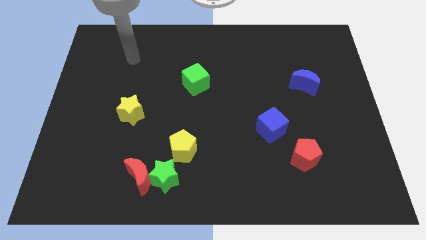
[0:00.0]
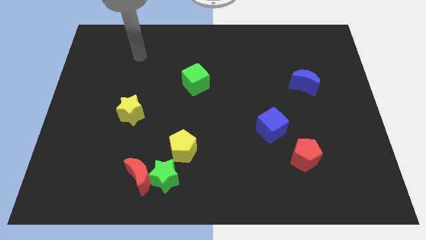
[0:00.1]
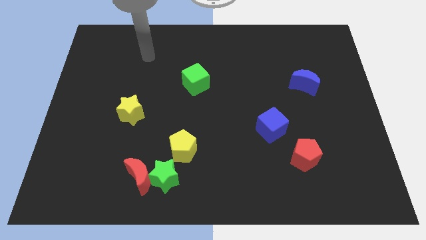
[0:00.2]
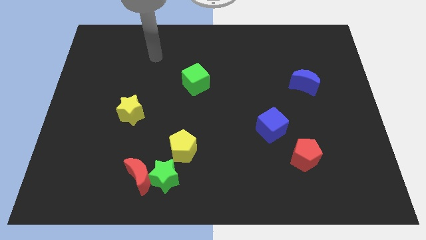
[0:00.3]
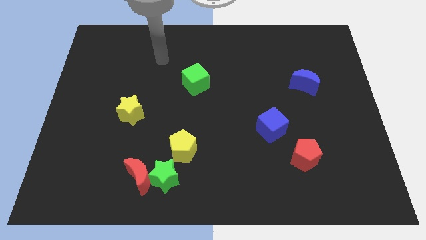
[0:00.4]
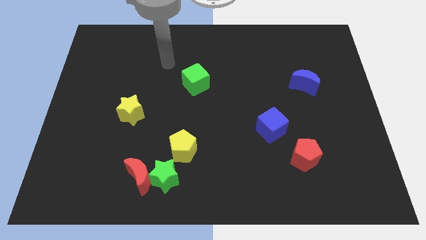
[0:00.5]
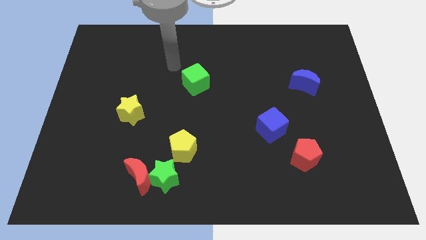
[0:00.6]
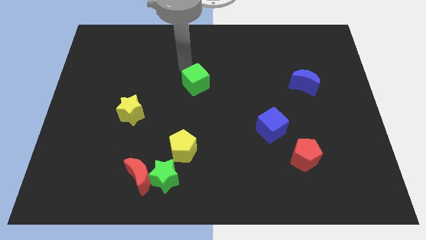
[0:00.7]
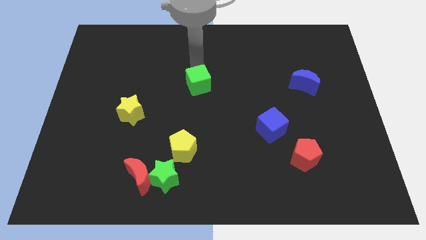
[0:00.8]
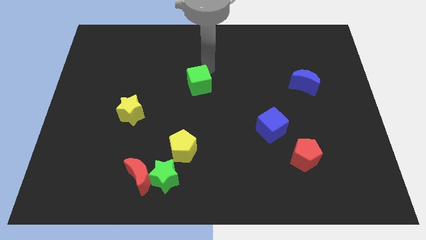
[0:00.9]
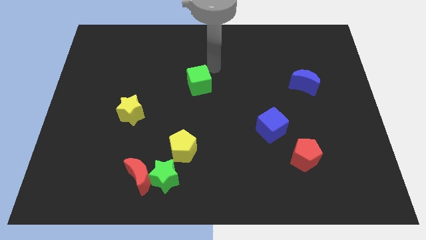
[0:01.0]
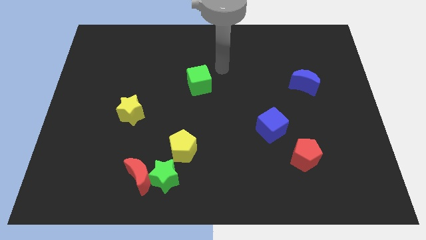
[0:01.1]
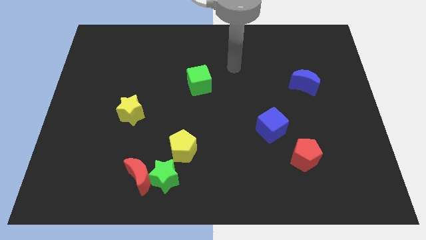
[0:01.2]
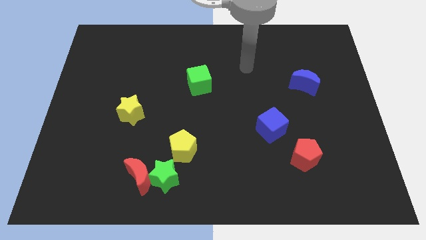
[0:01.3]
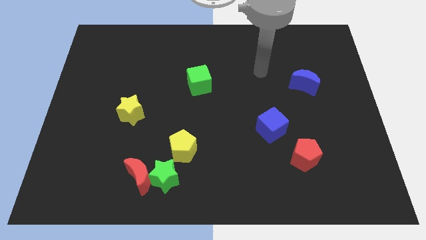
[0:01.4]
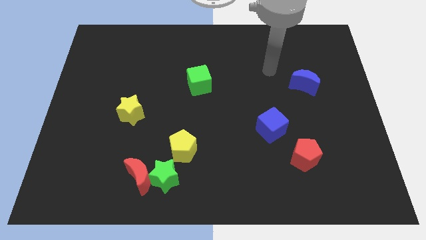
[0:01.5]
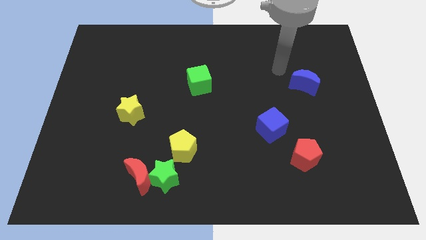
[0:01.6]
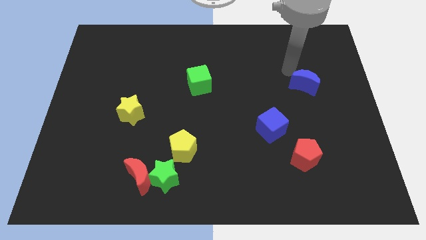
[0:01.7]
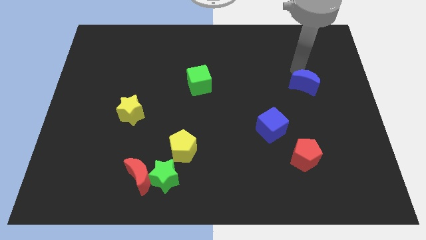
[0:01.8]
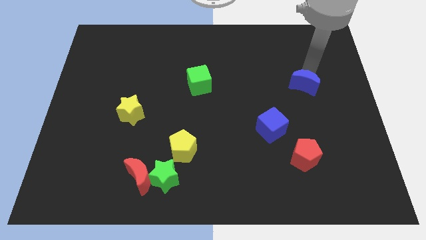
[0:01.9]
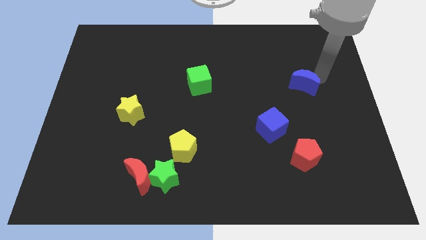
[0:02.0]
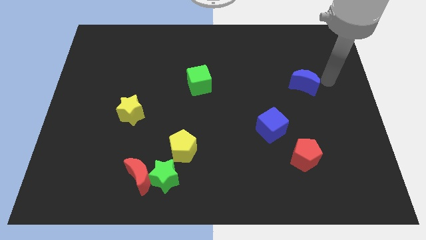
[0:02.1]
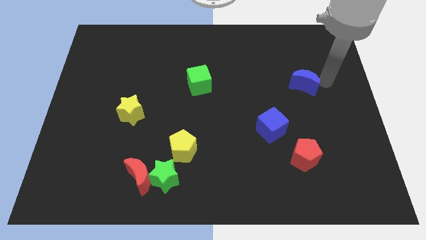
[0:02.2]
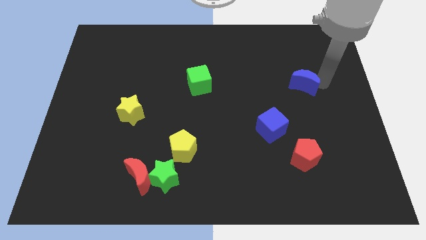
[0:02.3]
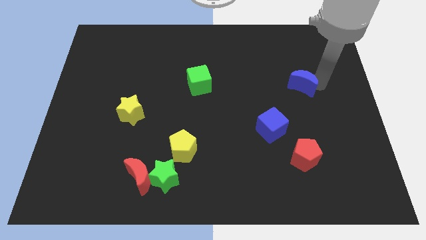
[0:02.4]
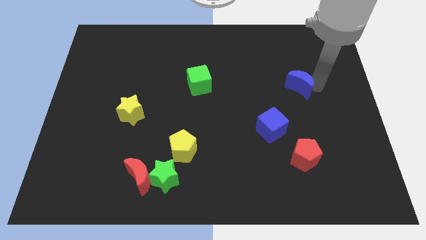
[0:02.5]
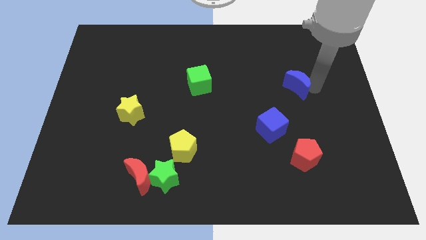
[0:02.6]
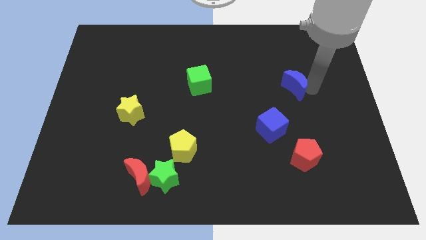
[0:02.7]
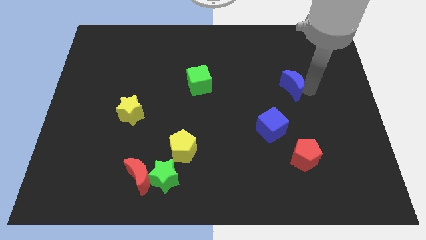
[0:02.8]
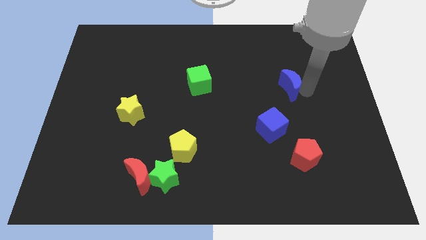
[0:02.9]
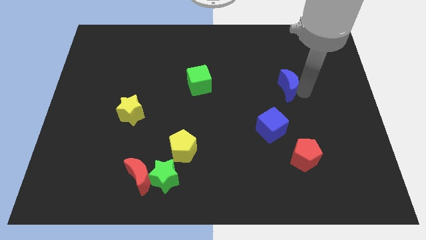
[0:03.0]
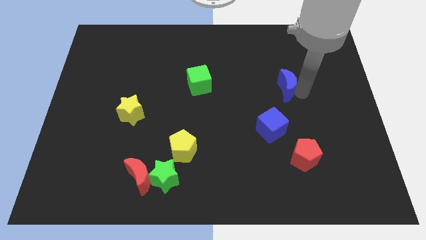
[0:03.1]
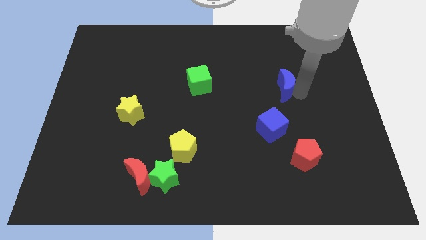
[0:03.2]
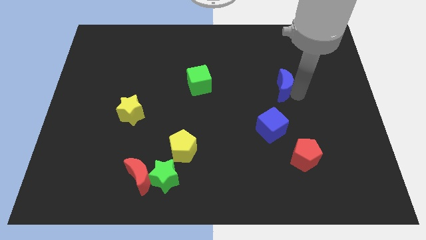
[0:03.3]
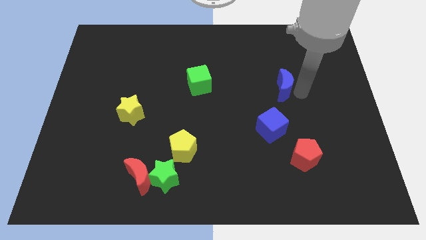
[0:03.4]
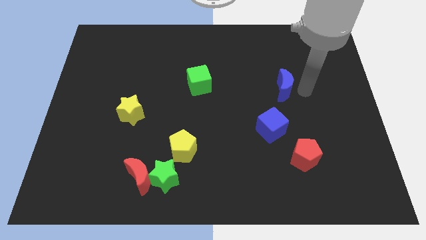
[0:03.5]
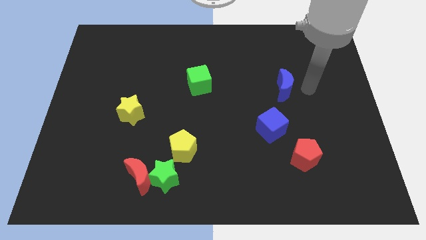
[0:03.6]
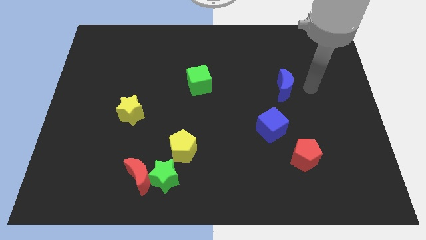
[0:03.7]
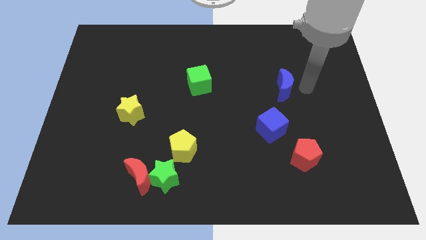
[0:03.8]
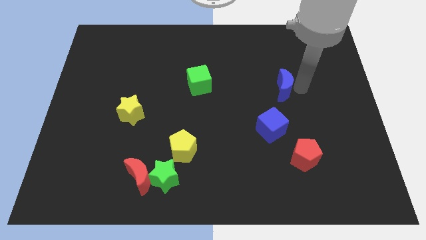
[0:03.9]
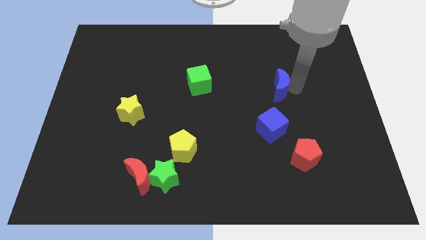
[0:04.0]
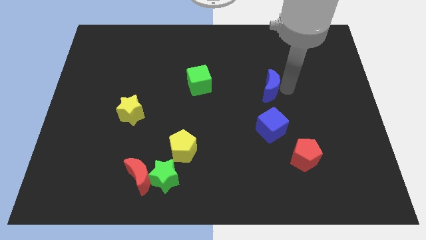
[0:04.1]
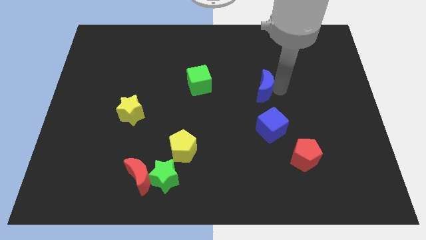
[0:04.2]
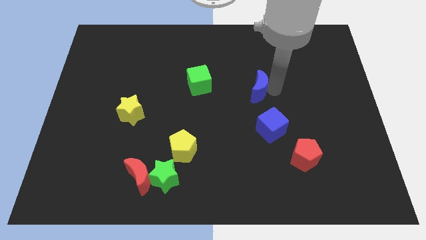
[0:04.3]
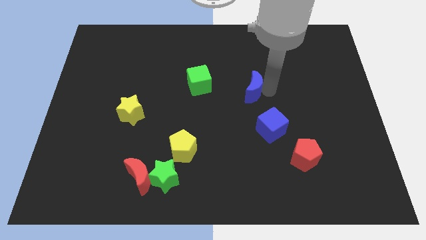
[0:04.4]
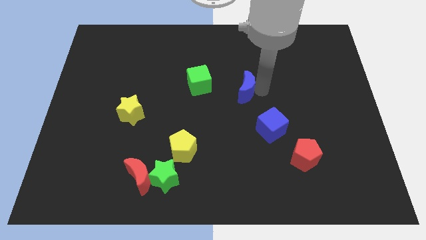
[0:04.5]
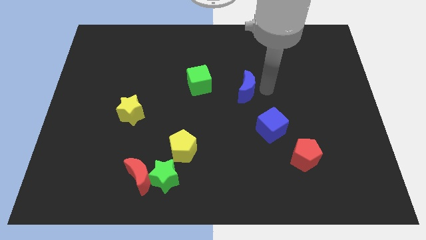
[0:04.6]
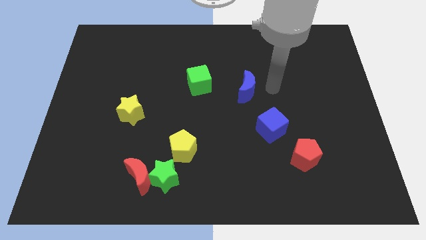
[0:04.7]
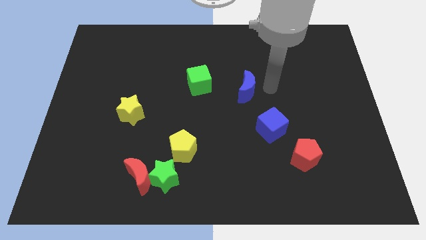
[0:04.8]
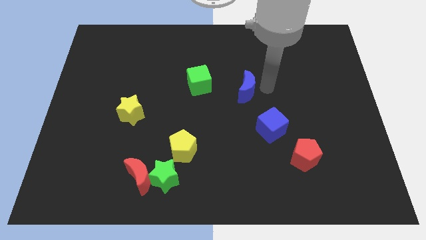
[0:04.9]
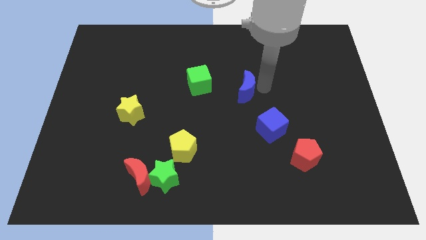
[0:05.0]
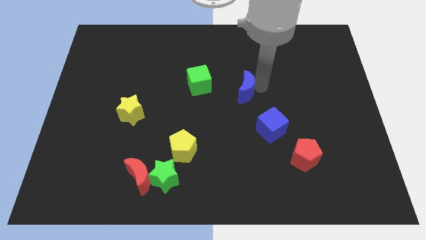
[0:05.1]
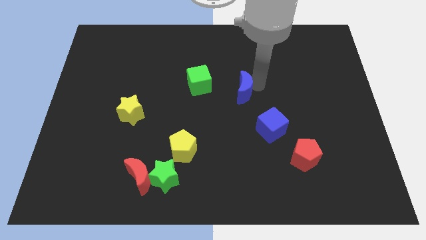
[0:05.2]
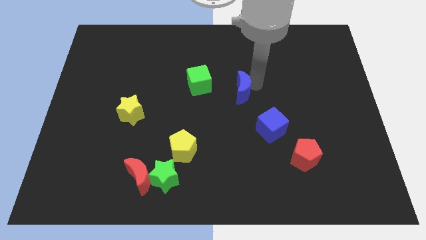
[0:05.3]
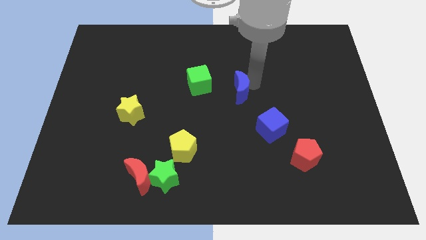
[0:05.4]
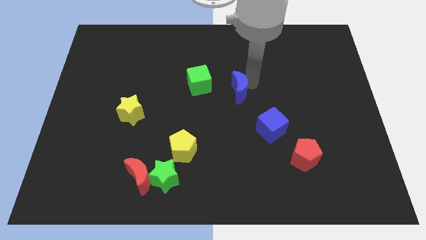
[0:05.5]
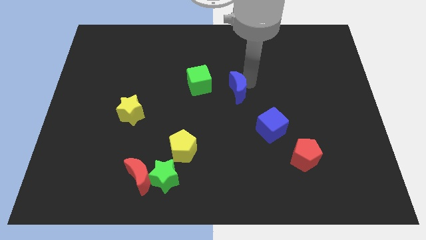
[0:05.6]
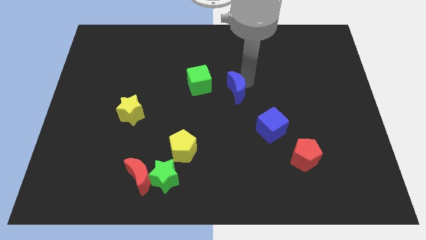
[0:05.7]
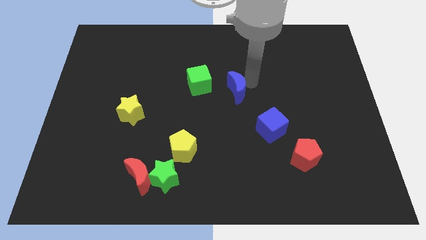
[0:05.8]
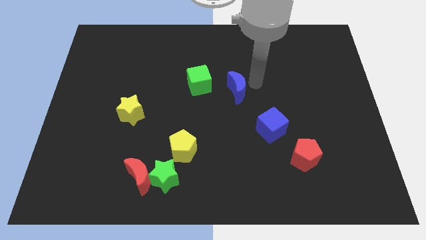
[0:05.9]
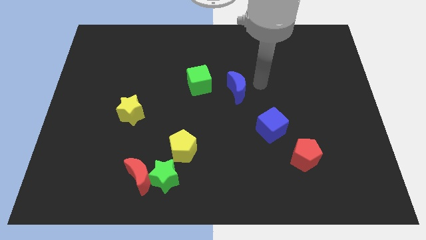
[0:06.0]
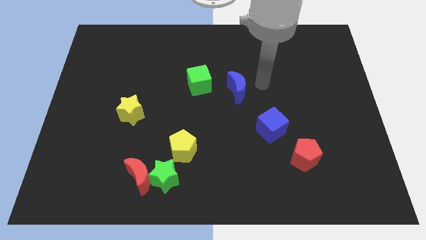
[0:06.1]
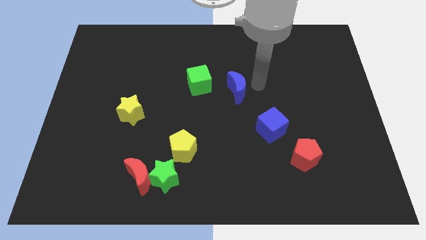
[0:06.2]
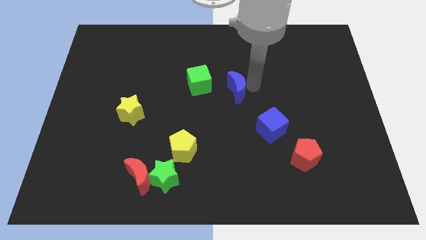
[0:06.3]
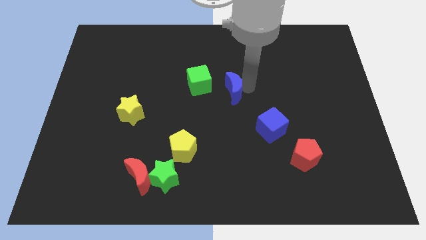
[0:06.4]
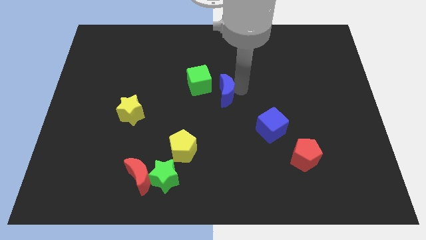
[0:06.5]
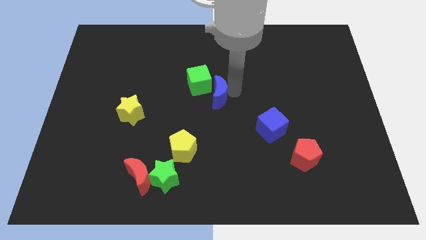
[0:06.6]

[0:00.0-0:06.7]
move the blue moon left

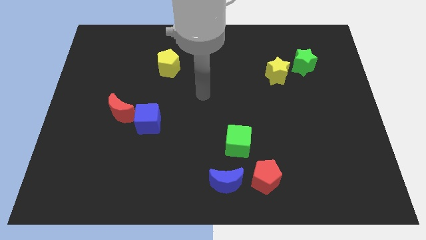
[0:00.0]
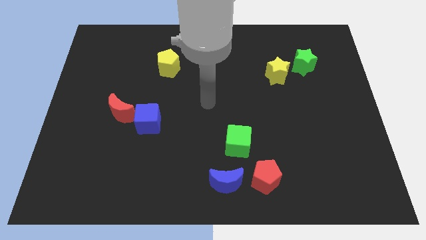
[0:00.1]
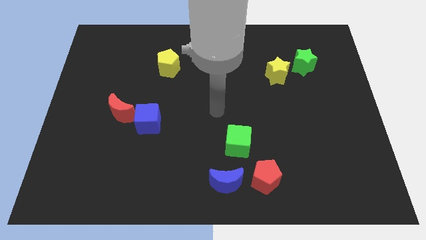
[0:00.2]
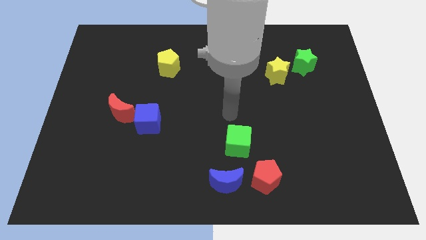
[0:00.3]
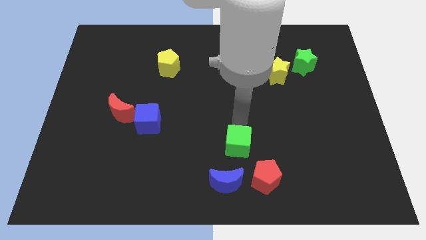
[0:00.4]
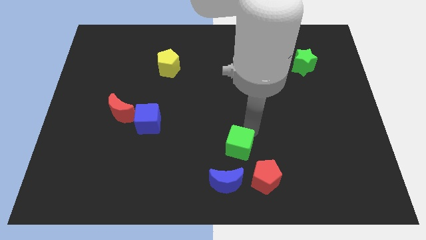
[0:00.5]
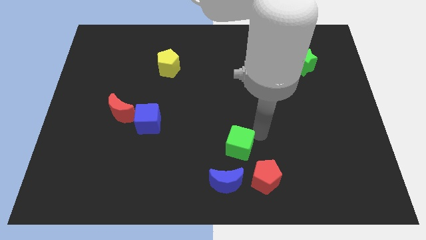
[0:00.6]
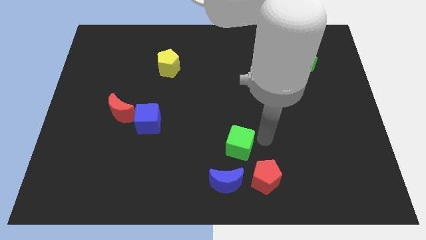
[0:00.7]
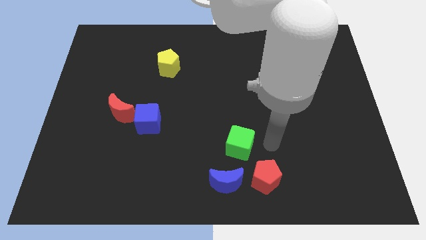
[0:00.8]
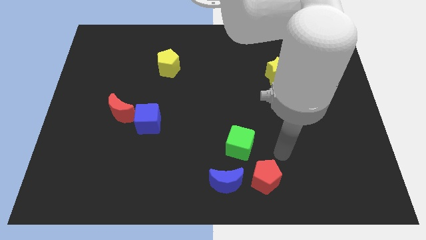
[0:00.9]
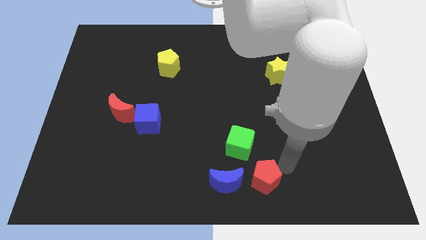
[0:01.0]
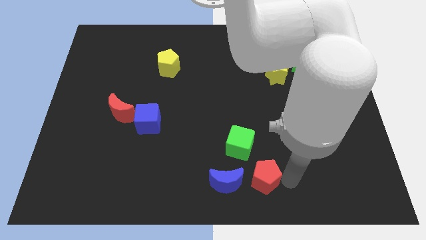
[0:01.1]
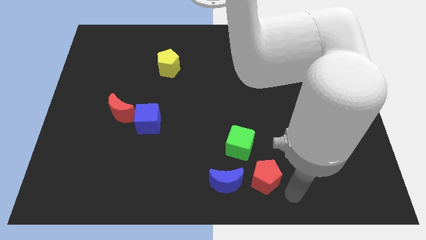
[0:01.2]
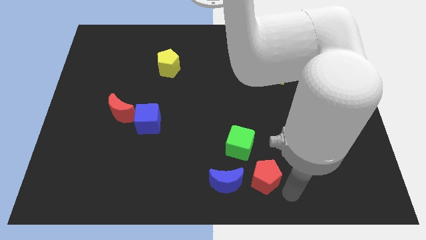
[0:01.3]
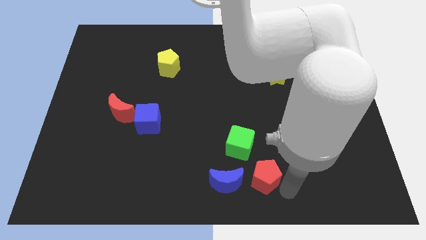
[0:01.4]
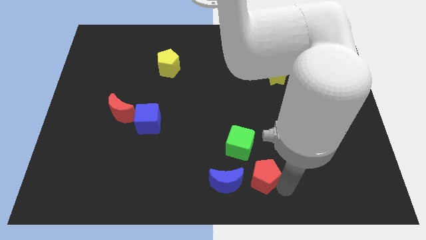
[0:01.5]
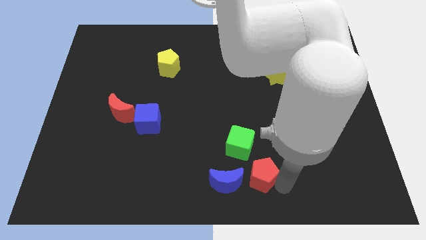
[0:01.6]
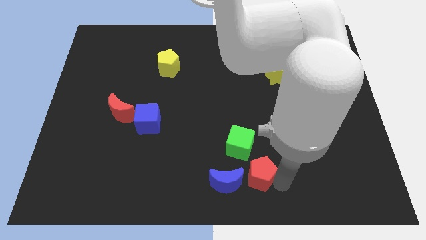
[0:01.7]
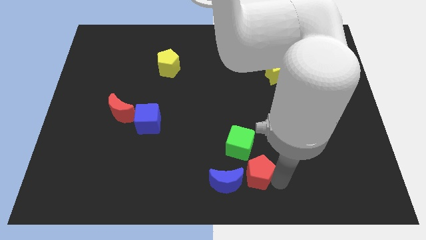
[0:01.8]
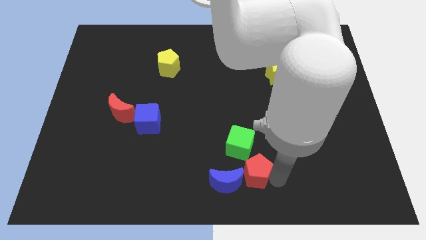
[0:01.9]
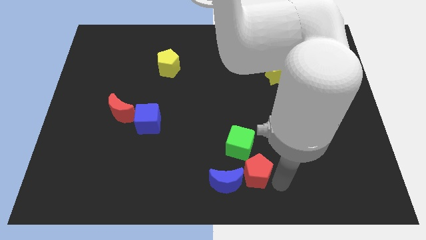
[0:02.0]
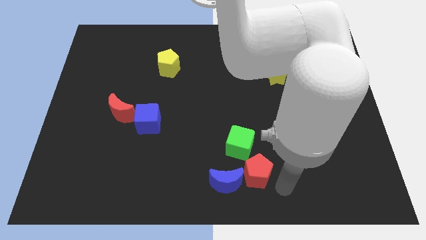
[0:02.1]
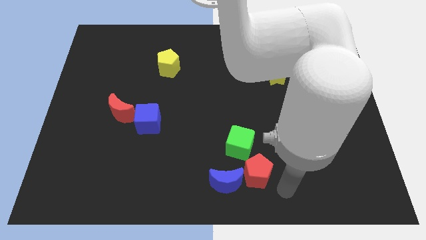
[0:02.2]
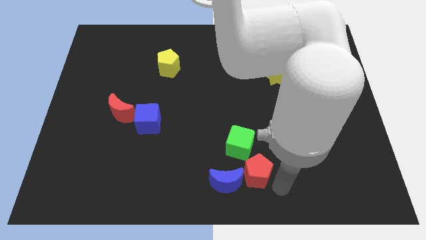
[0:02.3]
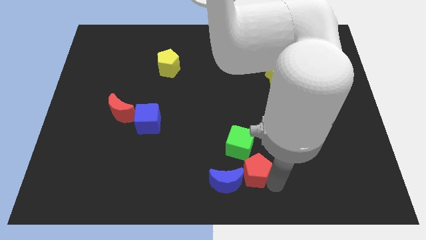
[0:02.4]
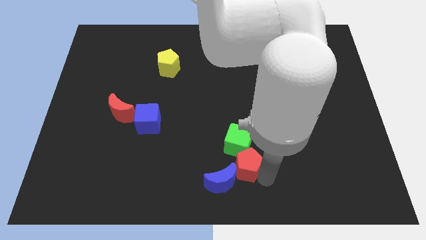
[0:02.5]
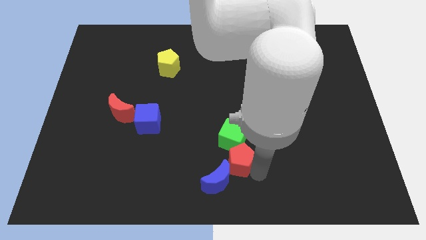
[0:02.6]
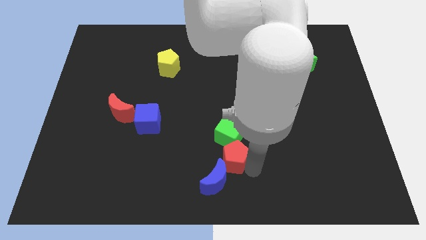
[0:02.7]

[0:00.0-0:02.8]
slightly push the red pentagon up and then to the left
